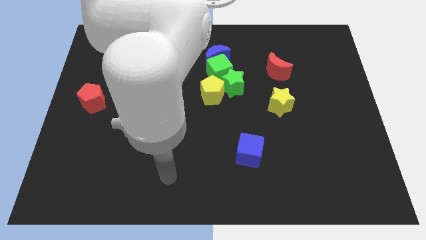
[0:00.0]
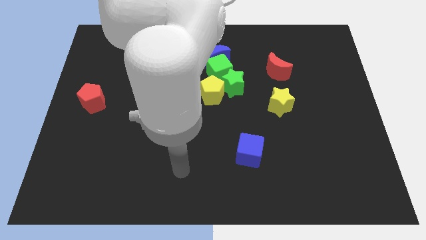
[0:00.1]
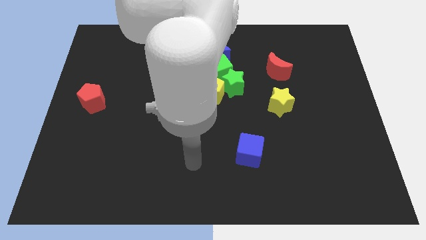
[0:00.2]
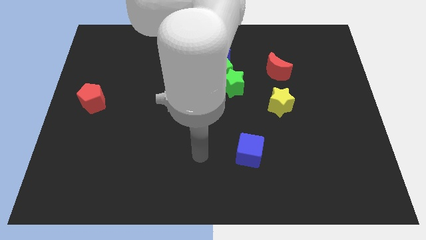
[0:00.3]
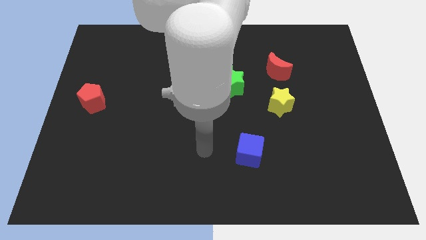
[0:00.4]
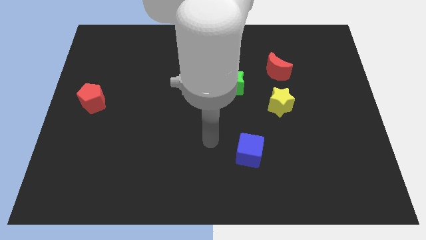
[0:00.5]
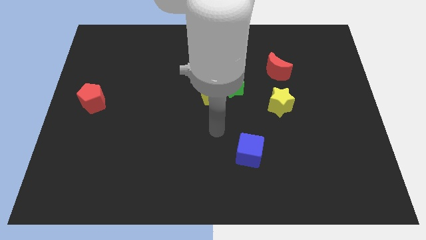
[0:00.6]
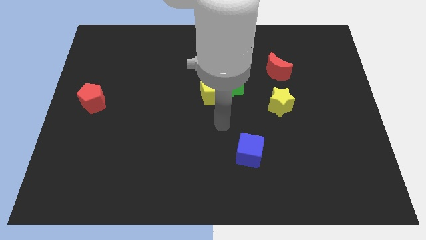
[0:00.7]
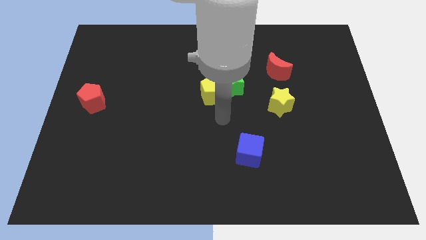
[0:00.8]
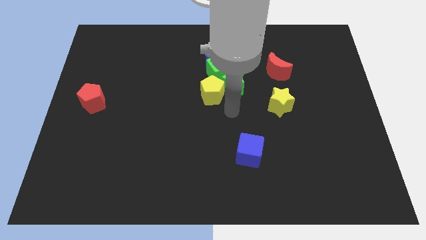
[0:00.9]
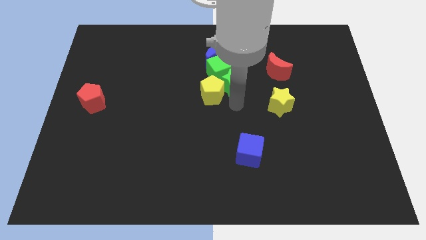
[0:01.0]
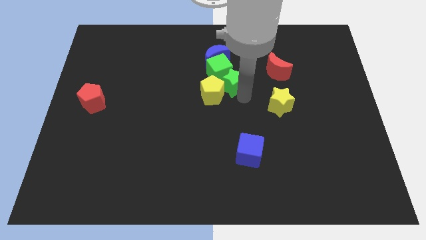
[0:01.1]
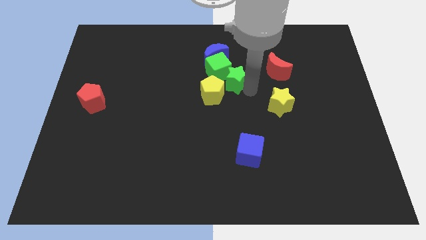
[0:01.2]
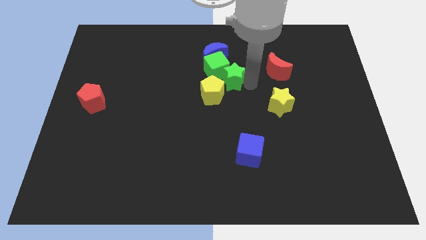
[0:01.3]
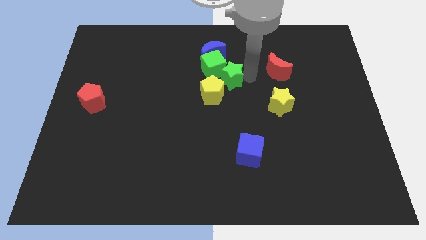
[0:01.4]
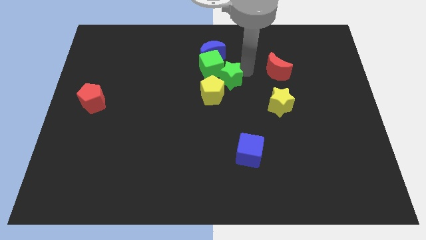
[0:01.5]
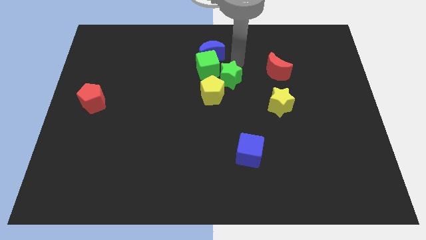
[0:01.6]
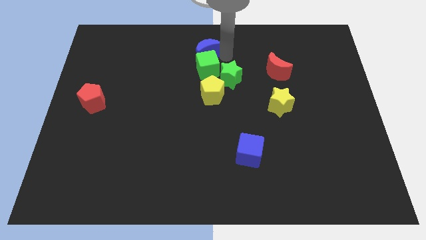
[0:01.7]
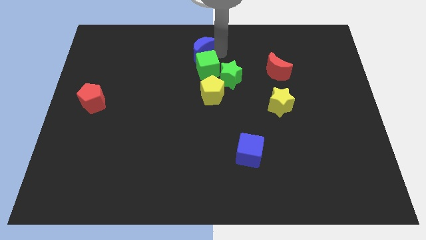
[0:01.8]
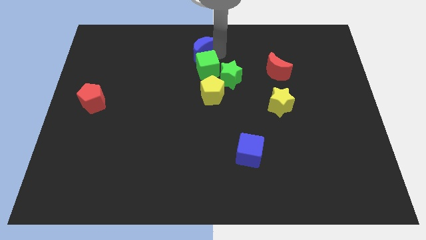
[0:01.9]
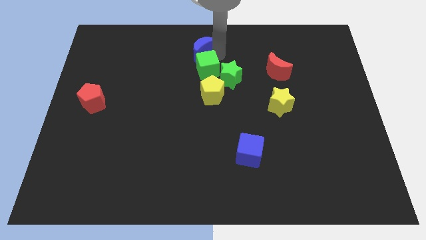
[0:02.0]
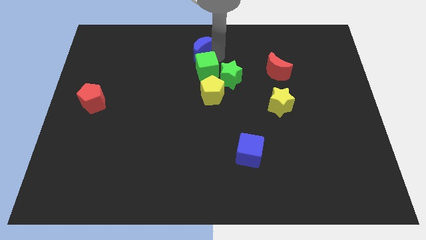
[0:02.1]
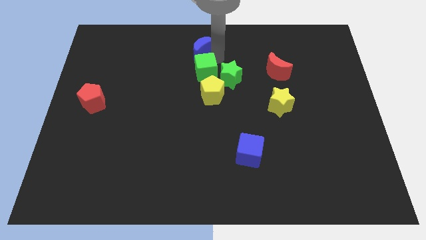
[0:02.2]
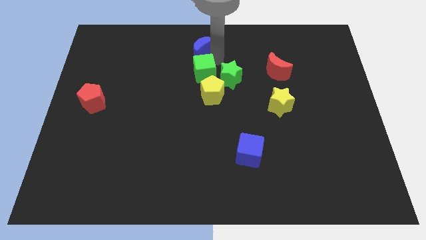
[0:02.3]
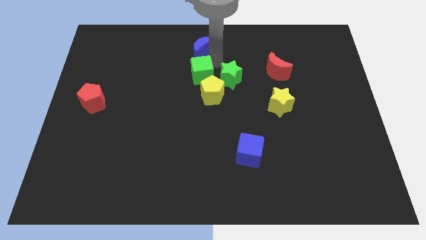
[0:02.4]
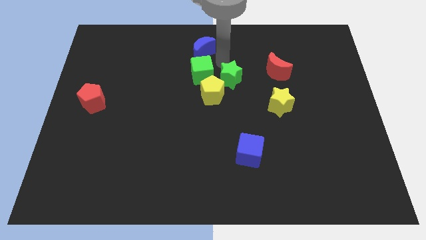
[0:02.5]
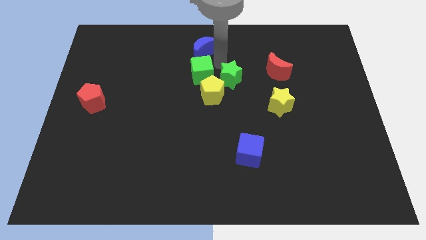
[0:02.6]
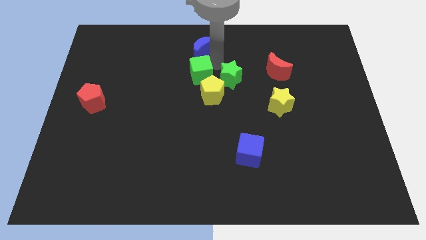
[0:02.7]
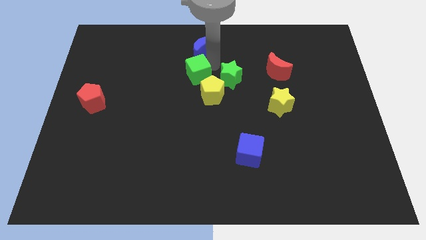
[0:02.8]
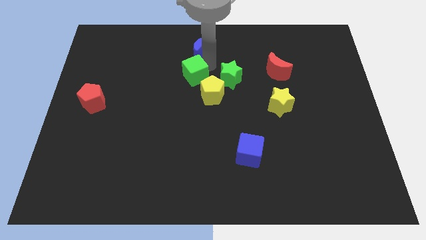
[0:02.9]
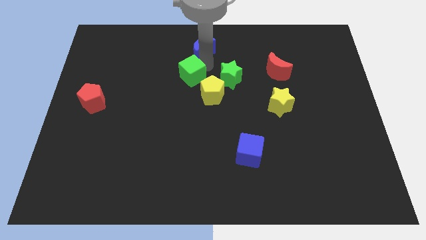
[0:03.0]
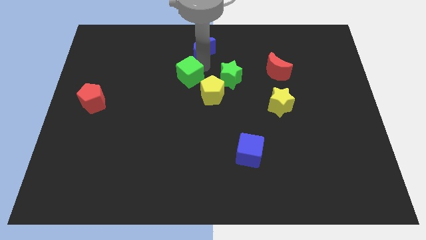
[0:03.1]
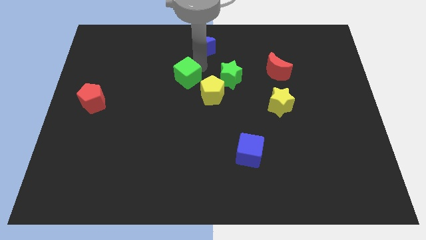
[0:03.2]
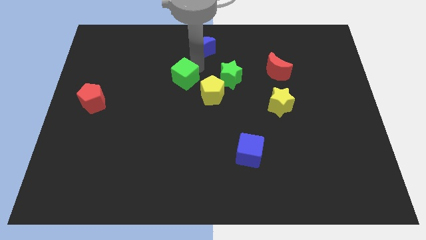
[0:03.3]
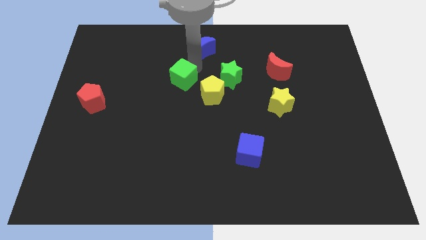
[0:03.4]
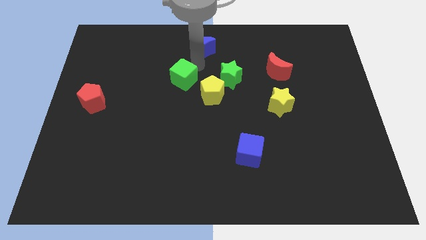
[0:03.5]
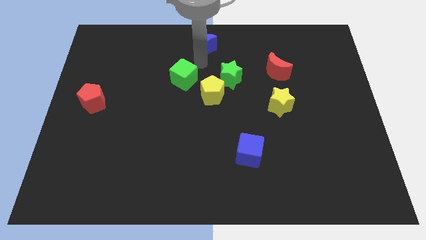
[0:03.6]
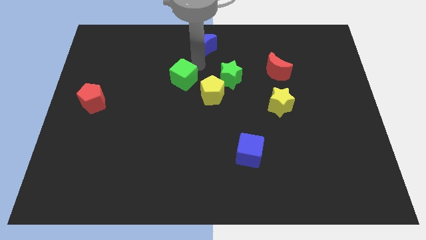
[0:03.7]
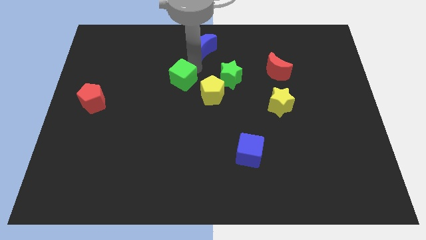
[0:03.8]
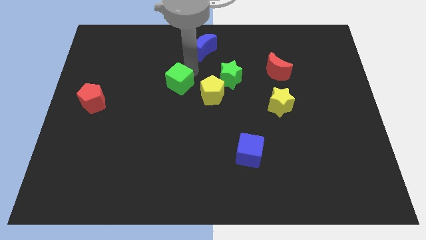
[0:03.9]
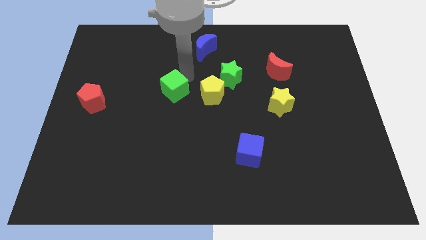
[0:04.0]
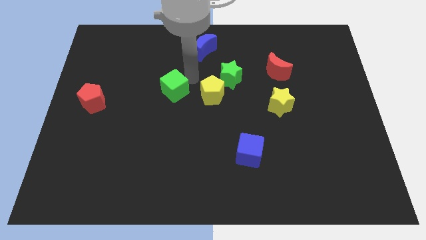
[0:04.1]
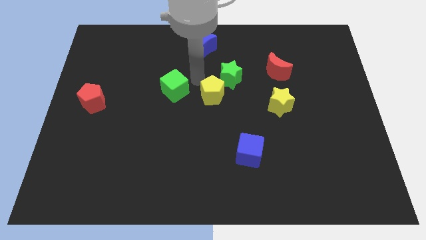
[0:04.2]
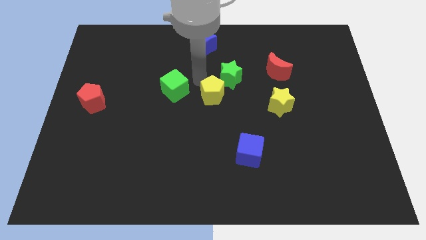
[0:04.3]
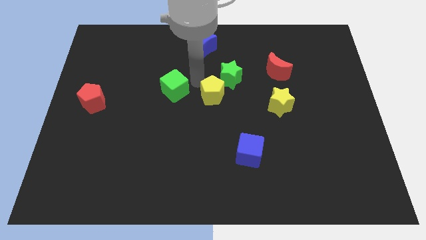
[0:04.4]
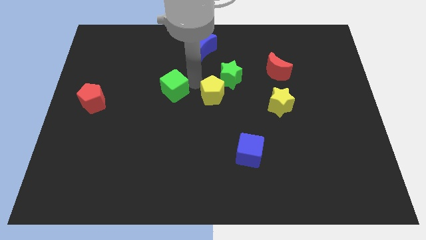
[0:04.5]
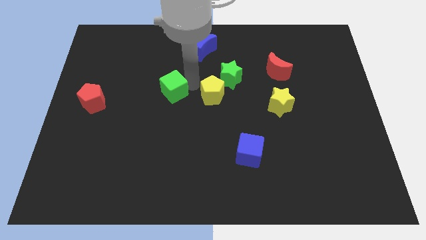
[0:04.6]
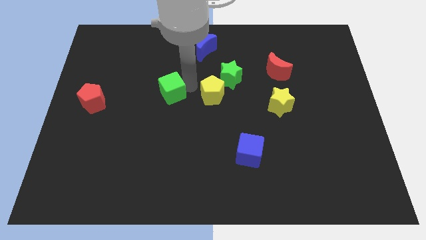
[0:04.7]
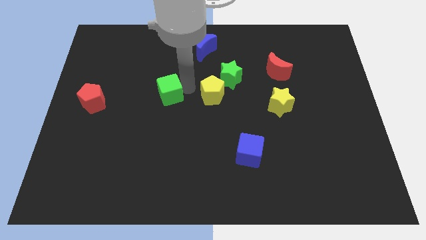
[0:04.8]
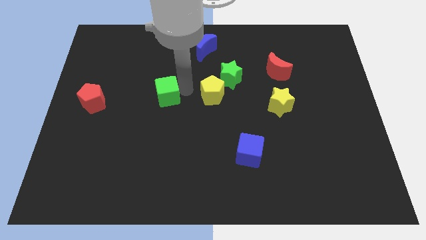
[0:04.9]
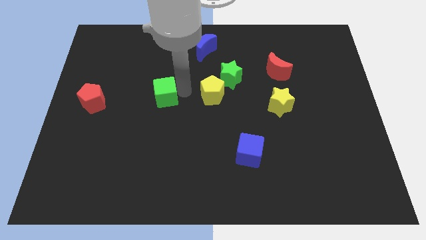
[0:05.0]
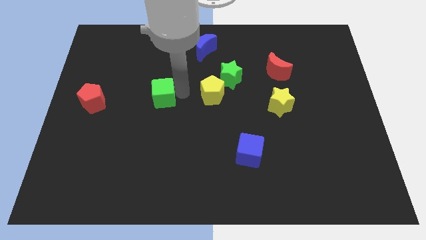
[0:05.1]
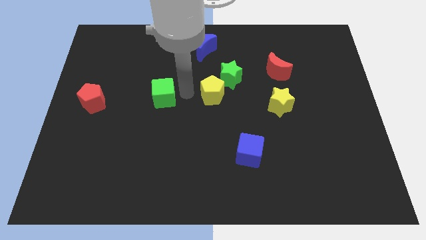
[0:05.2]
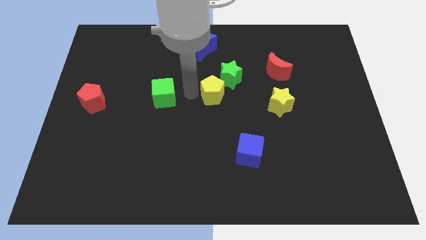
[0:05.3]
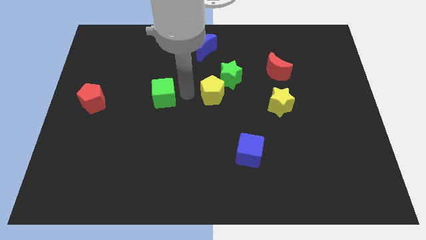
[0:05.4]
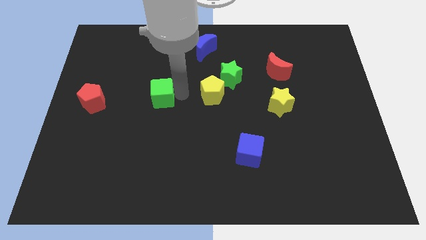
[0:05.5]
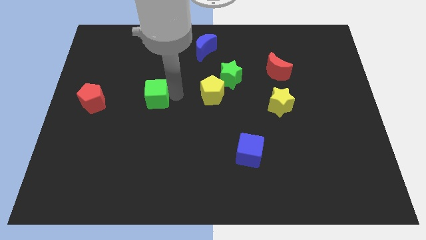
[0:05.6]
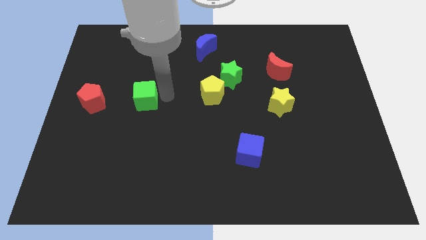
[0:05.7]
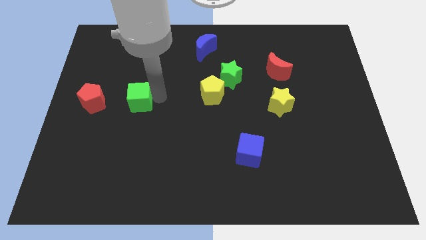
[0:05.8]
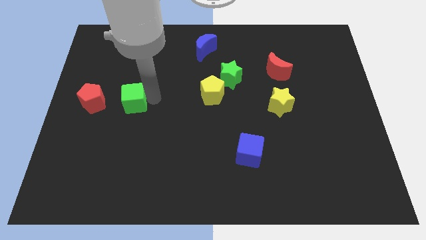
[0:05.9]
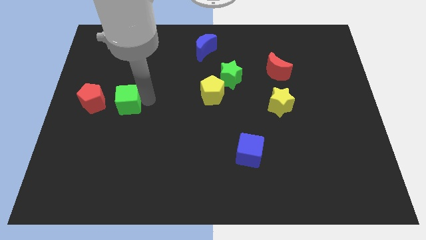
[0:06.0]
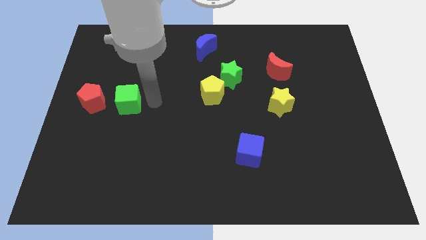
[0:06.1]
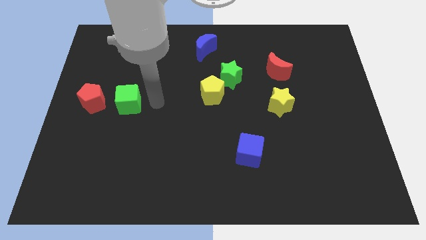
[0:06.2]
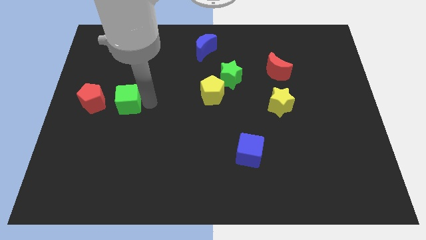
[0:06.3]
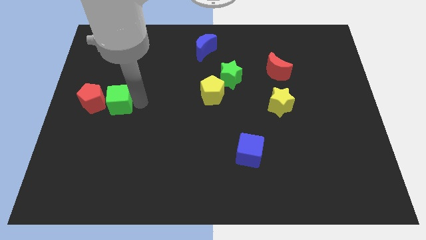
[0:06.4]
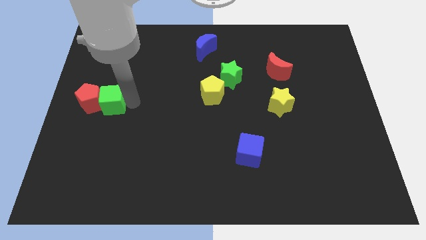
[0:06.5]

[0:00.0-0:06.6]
push the green cube to the red pentagon

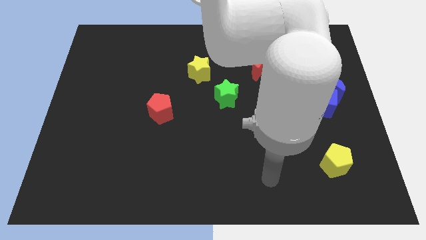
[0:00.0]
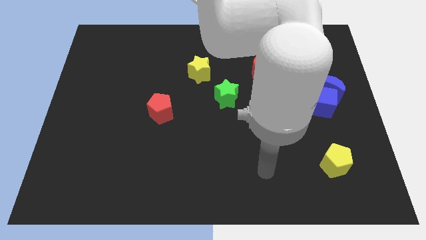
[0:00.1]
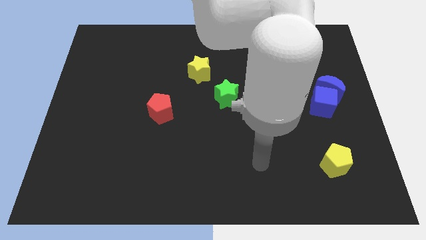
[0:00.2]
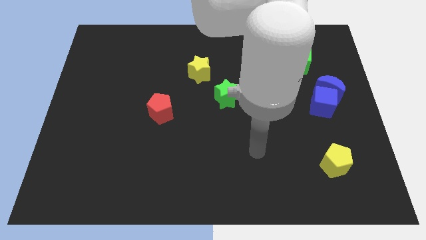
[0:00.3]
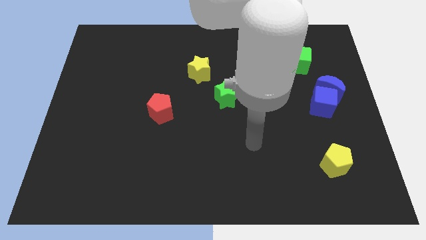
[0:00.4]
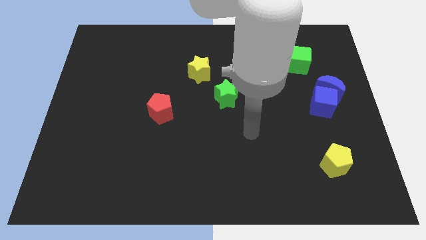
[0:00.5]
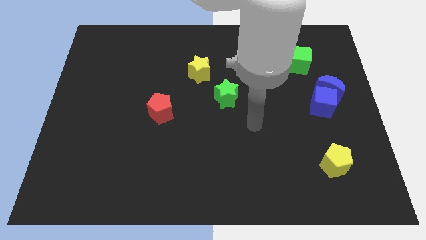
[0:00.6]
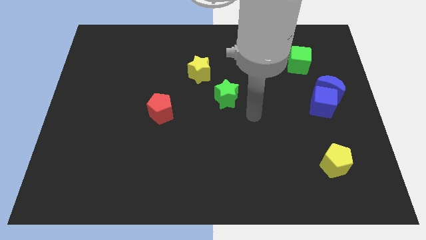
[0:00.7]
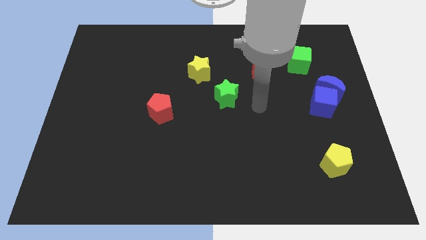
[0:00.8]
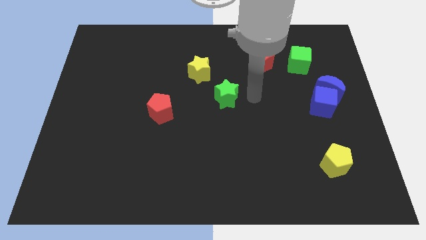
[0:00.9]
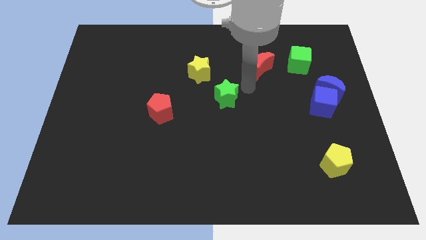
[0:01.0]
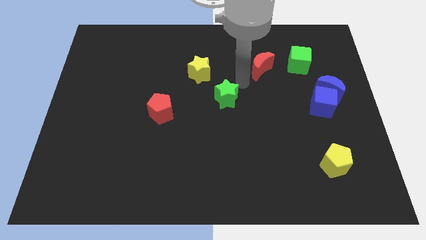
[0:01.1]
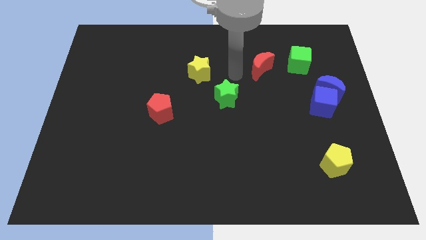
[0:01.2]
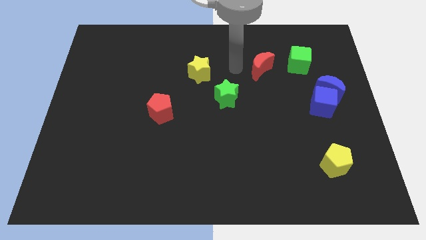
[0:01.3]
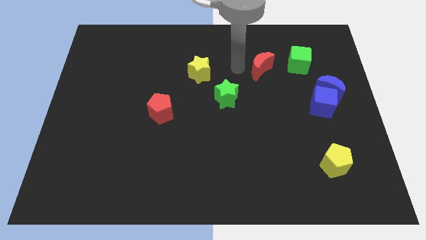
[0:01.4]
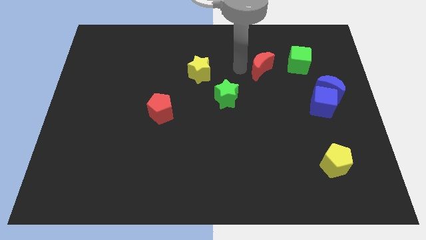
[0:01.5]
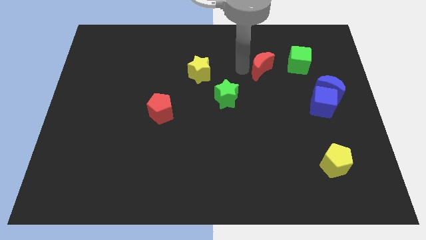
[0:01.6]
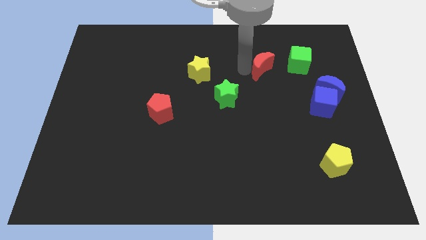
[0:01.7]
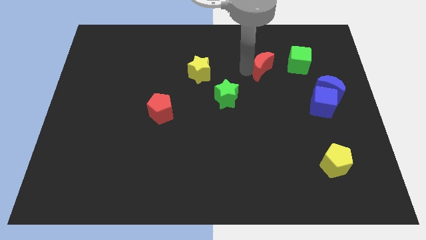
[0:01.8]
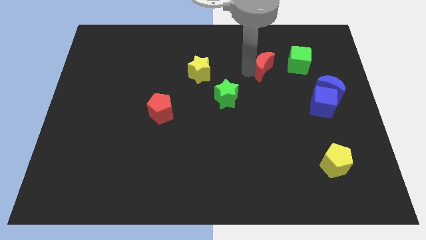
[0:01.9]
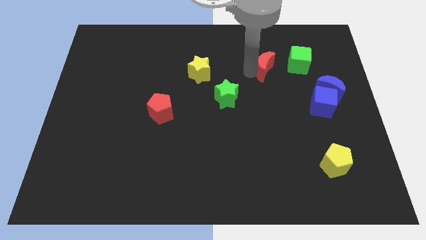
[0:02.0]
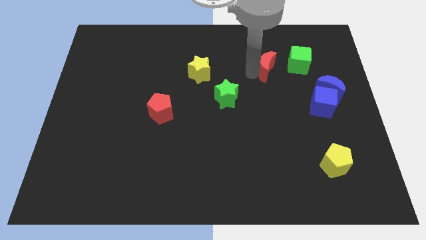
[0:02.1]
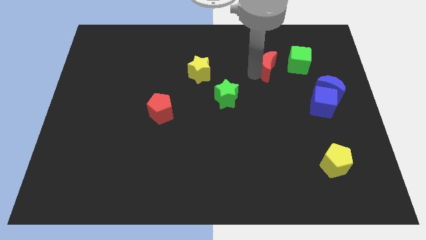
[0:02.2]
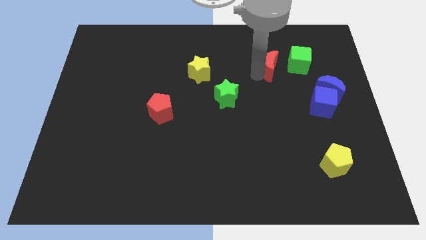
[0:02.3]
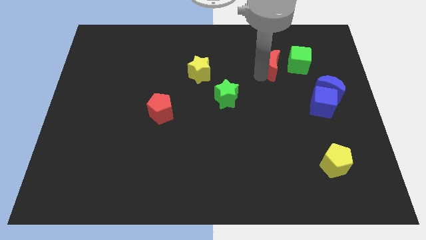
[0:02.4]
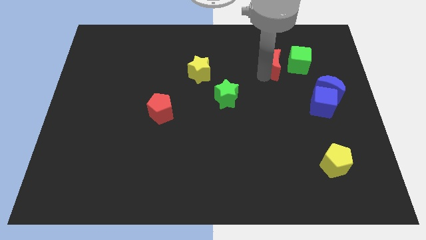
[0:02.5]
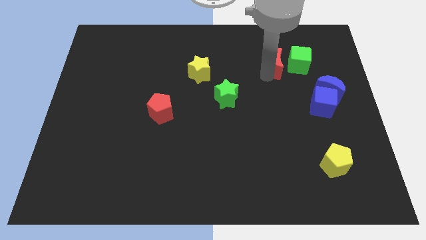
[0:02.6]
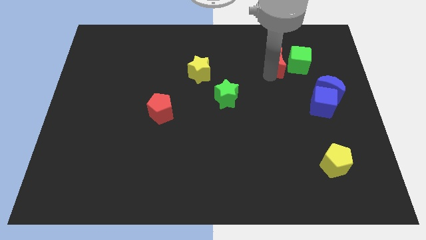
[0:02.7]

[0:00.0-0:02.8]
push the red moon close to the green cube
